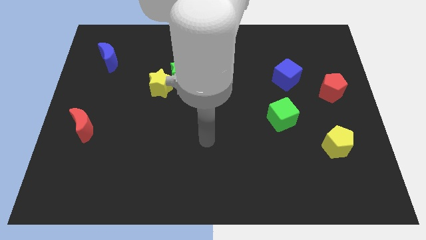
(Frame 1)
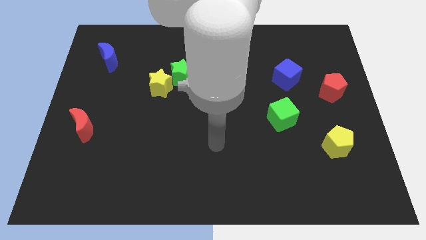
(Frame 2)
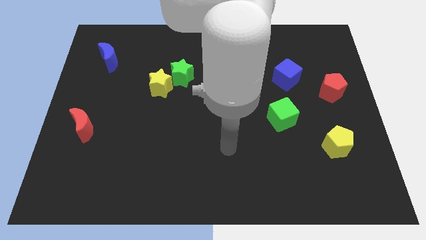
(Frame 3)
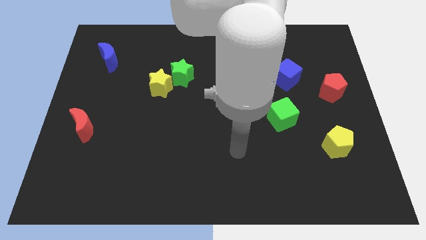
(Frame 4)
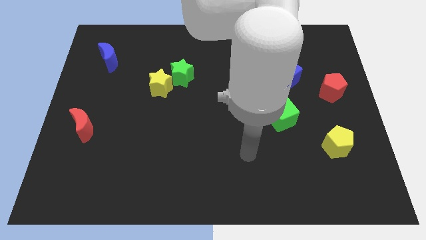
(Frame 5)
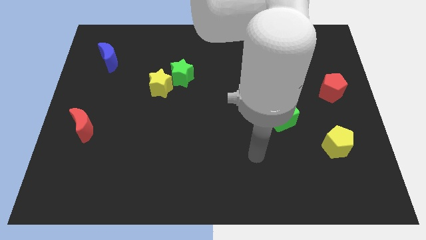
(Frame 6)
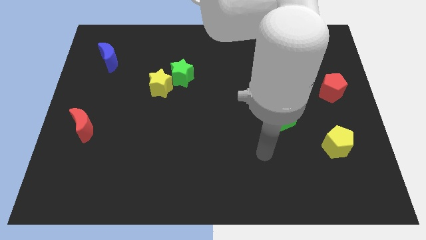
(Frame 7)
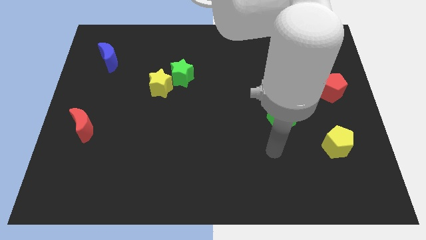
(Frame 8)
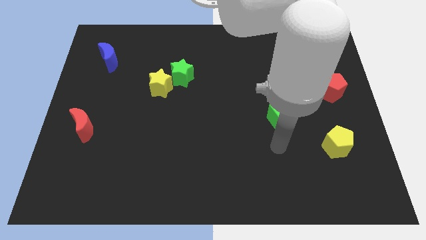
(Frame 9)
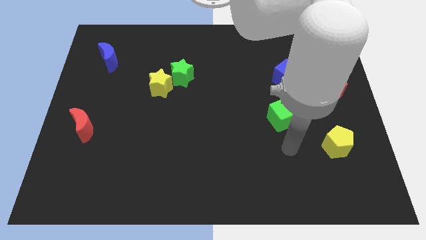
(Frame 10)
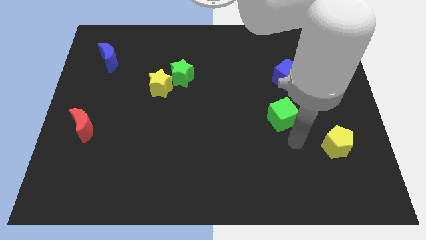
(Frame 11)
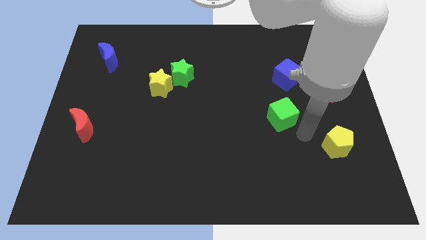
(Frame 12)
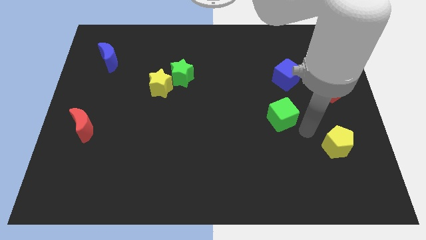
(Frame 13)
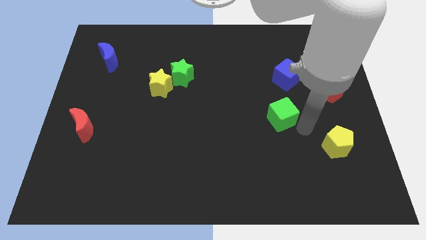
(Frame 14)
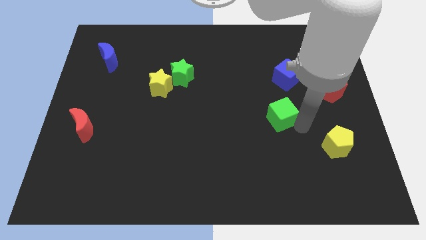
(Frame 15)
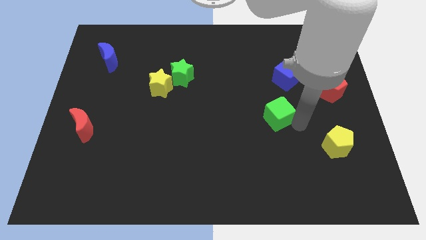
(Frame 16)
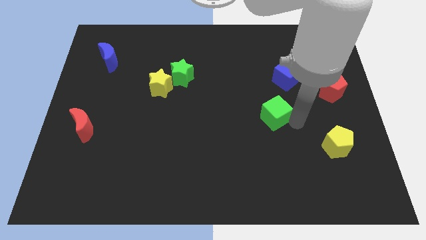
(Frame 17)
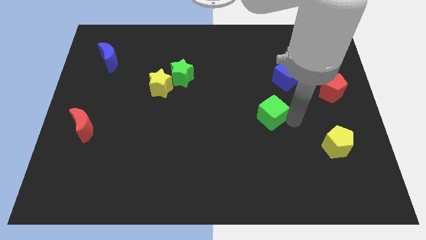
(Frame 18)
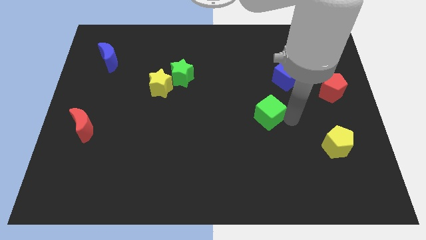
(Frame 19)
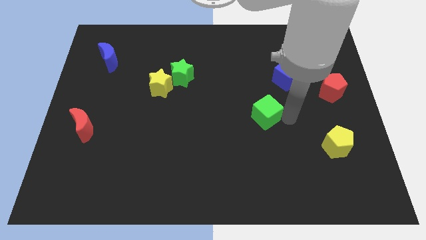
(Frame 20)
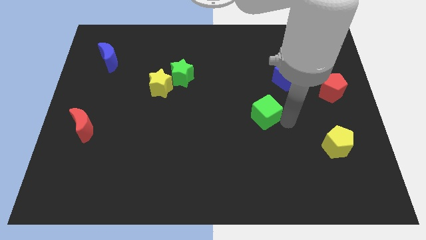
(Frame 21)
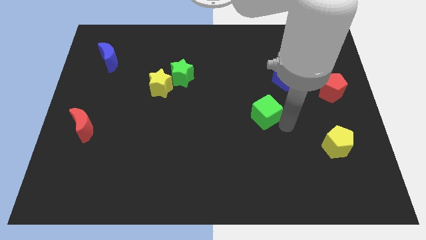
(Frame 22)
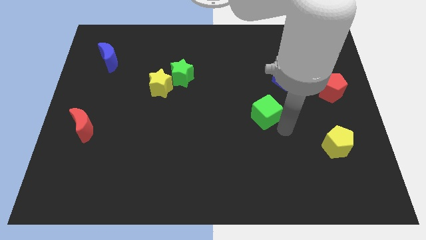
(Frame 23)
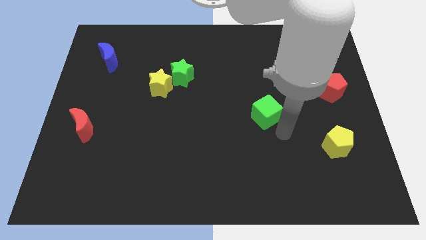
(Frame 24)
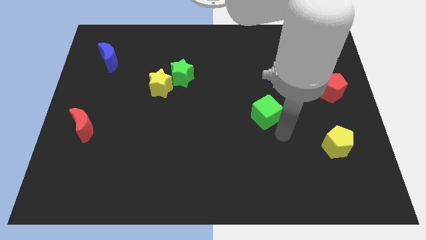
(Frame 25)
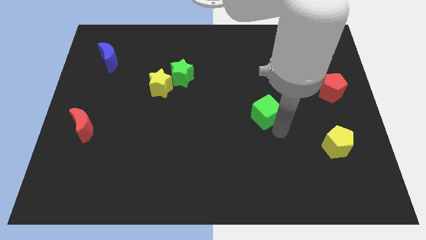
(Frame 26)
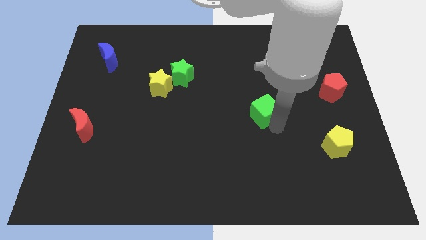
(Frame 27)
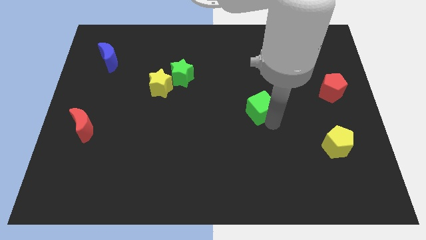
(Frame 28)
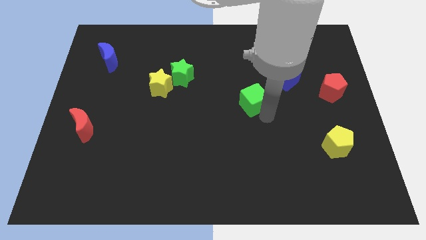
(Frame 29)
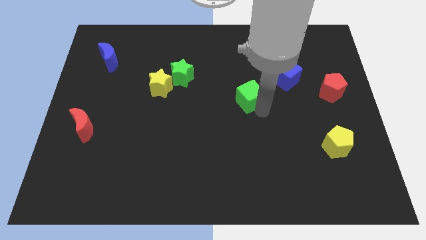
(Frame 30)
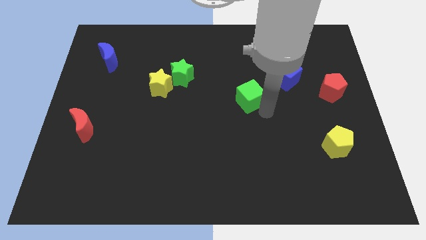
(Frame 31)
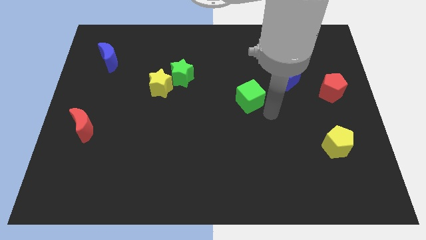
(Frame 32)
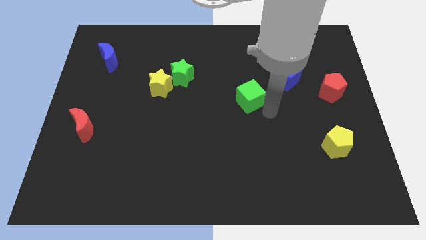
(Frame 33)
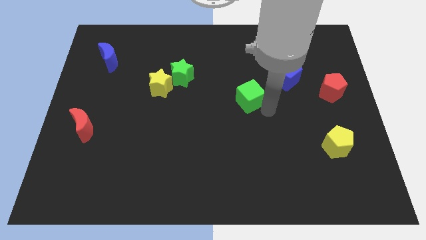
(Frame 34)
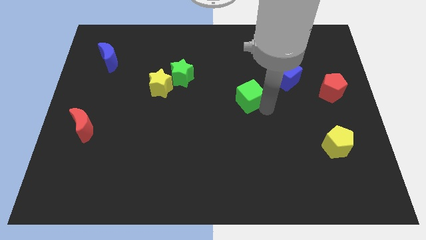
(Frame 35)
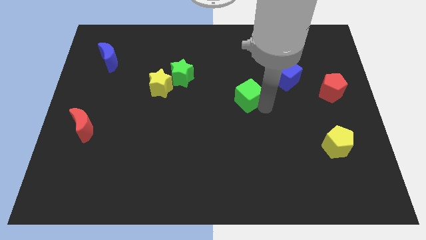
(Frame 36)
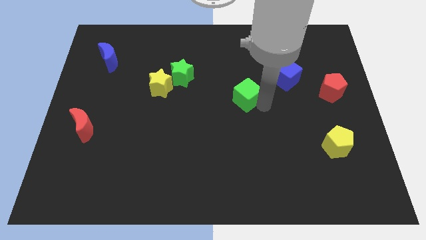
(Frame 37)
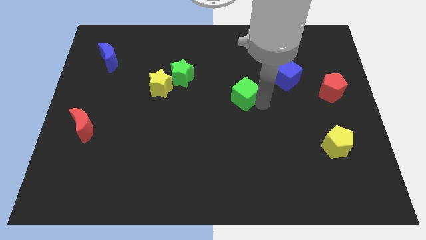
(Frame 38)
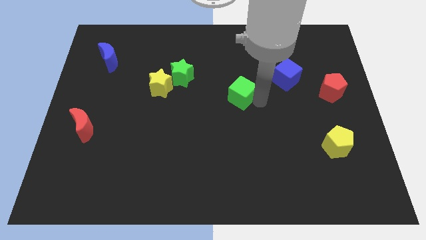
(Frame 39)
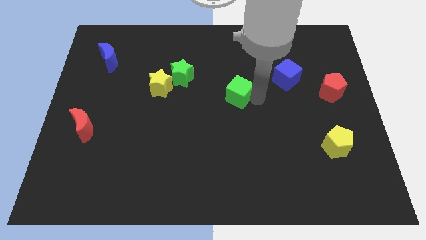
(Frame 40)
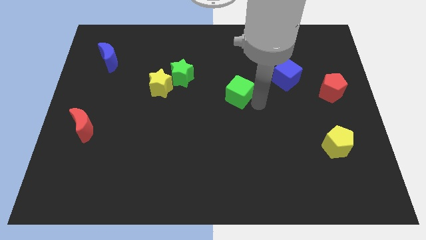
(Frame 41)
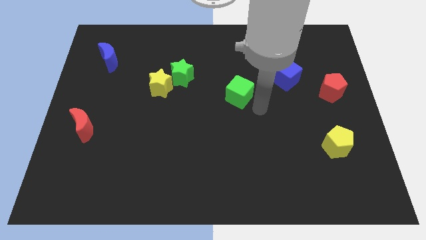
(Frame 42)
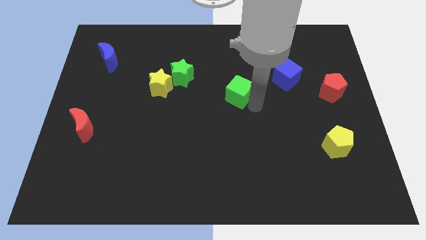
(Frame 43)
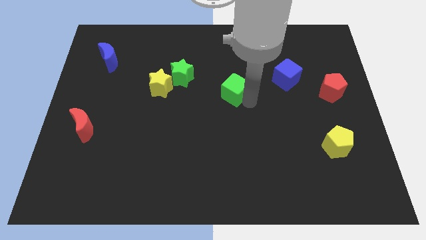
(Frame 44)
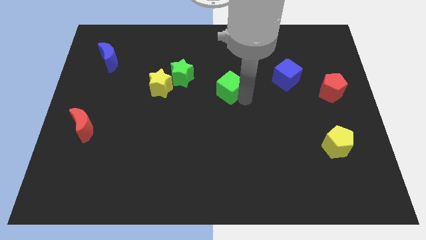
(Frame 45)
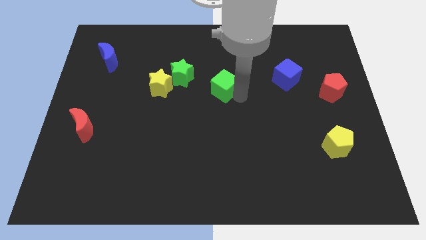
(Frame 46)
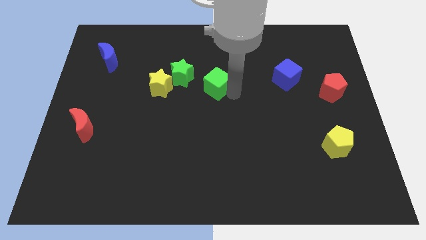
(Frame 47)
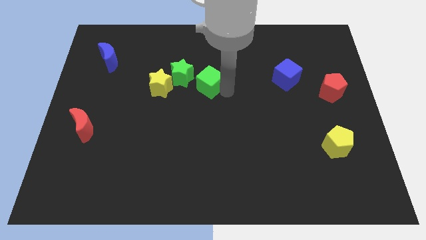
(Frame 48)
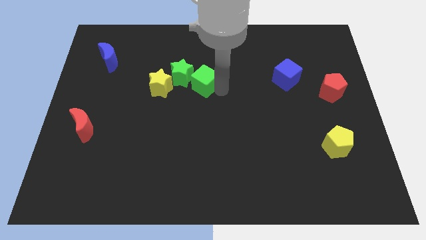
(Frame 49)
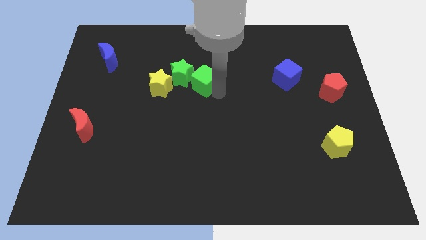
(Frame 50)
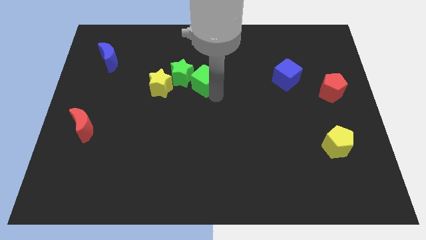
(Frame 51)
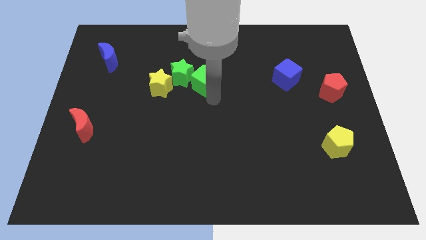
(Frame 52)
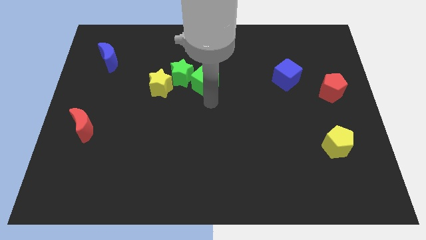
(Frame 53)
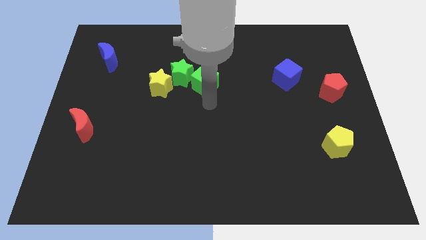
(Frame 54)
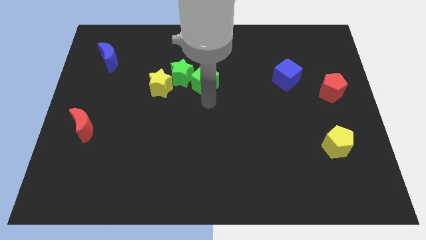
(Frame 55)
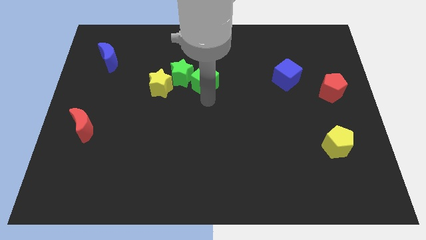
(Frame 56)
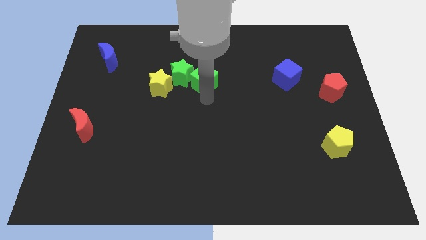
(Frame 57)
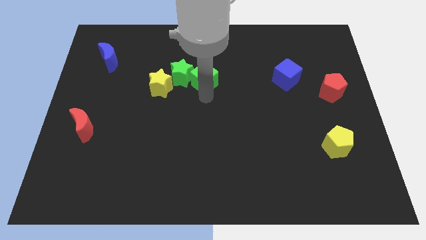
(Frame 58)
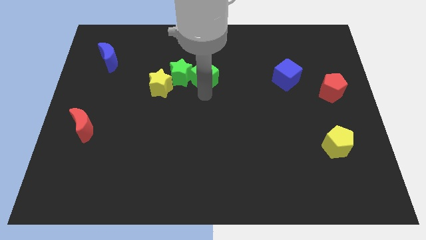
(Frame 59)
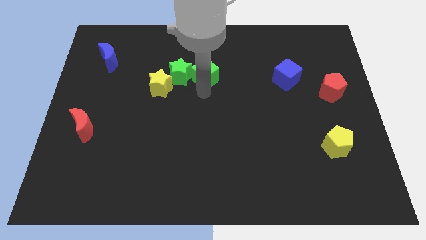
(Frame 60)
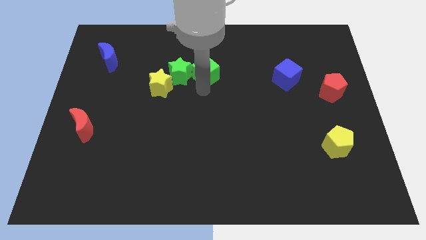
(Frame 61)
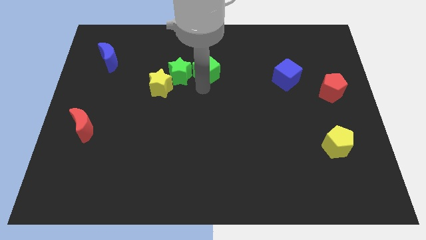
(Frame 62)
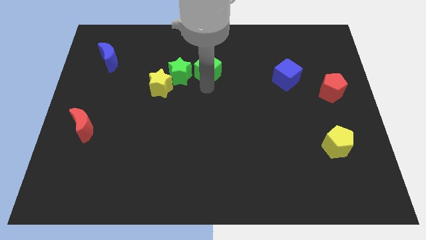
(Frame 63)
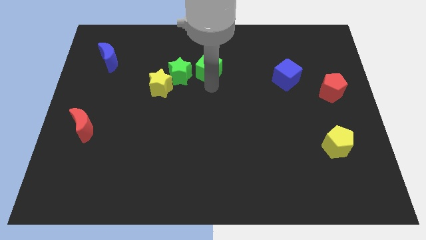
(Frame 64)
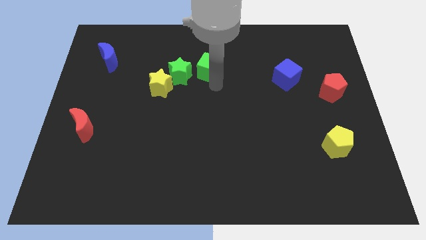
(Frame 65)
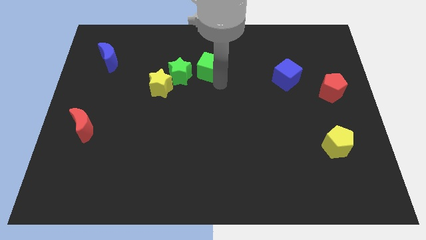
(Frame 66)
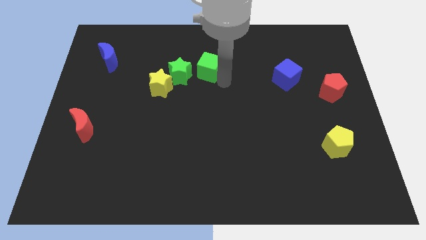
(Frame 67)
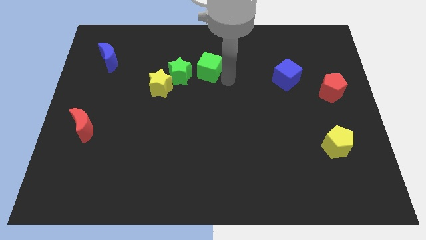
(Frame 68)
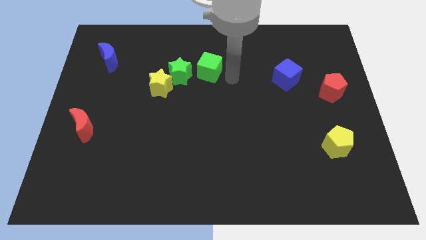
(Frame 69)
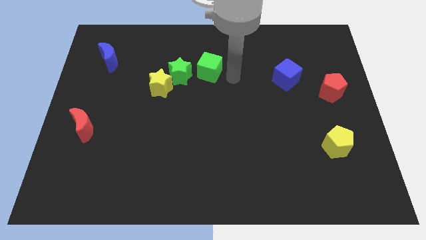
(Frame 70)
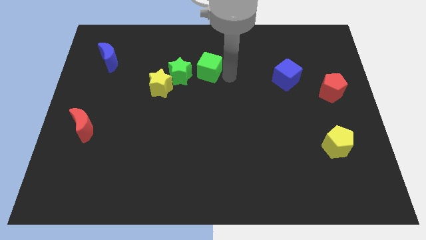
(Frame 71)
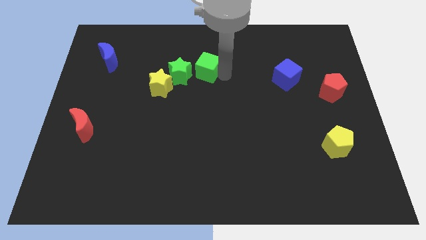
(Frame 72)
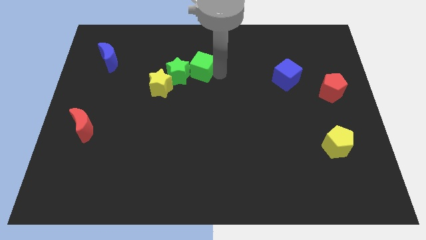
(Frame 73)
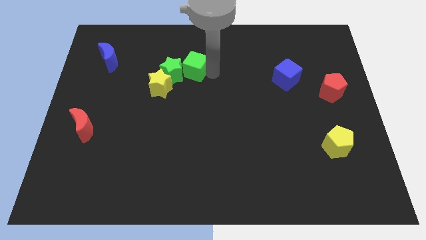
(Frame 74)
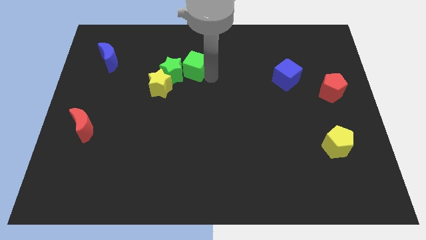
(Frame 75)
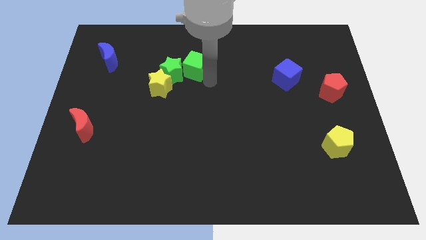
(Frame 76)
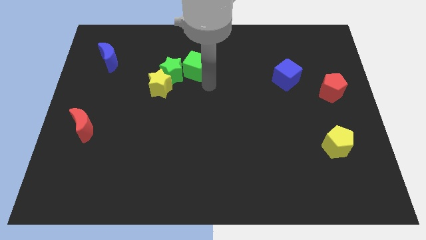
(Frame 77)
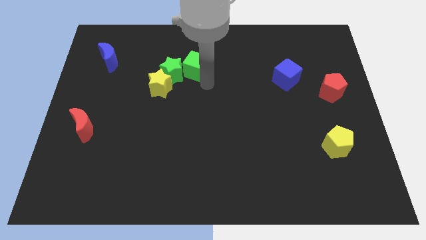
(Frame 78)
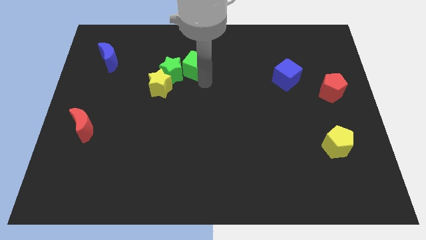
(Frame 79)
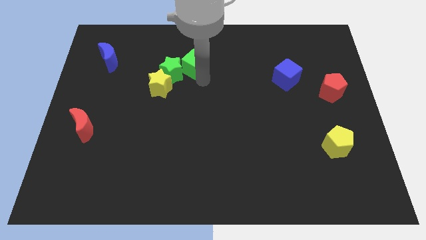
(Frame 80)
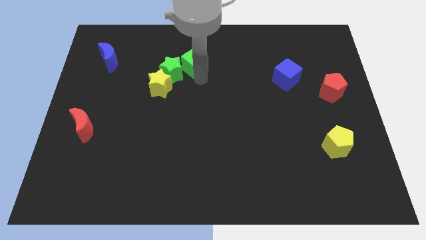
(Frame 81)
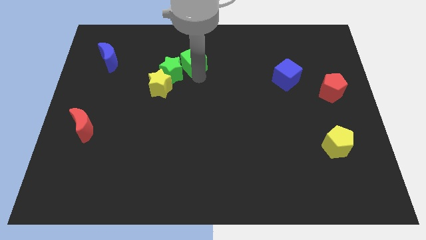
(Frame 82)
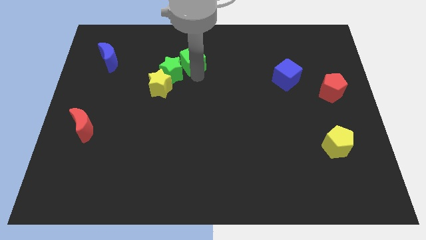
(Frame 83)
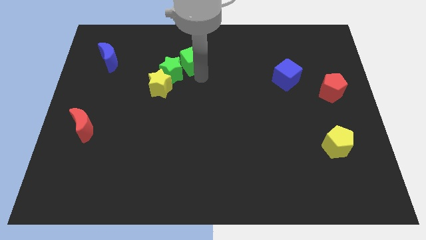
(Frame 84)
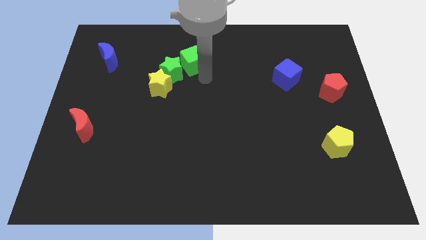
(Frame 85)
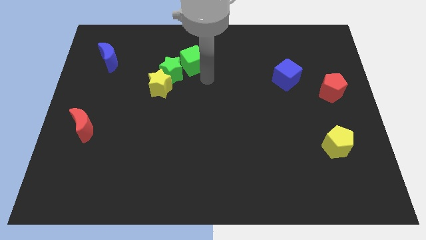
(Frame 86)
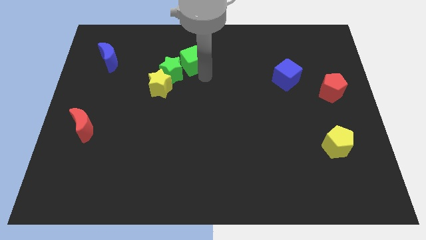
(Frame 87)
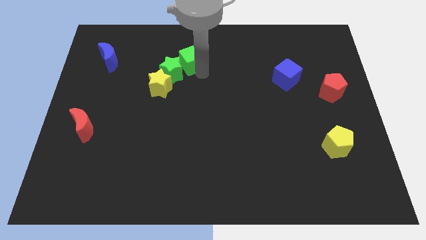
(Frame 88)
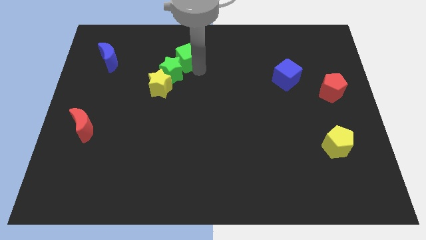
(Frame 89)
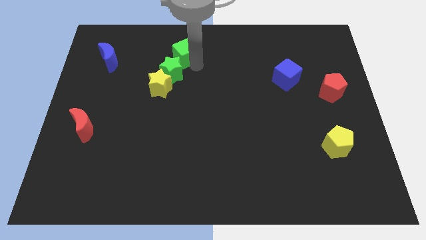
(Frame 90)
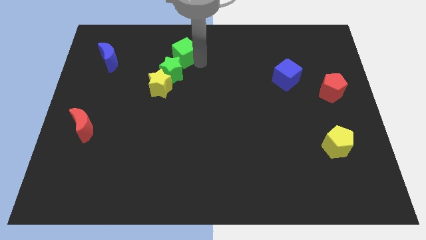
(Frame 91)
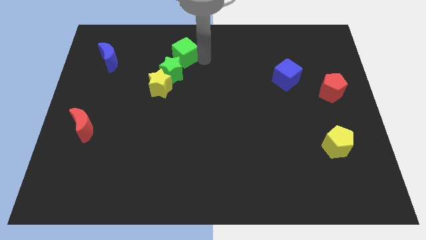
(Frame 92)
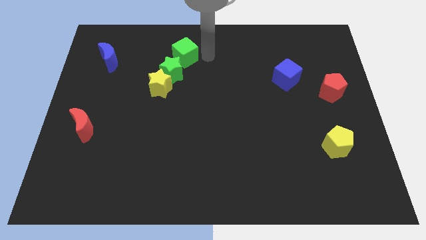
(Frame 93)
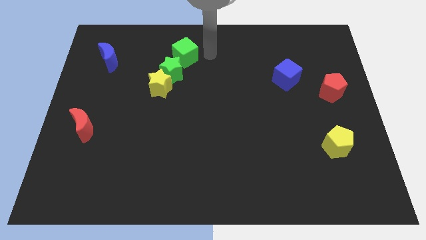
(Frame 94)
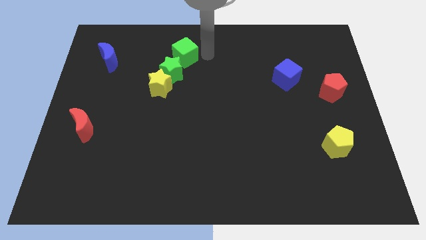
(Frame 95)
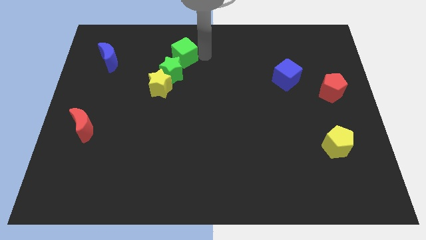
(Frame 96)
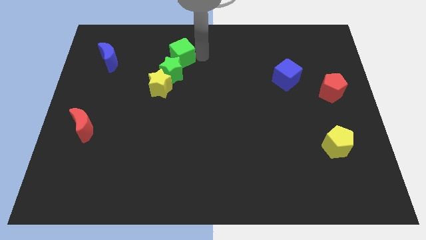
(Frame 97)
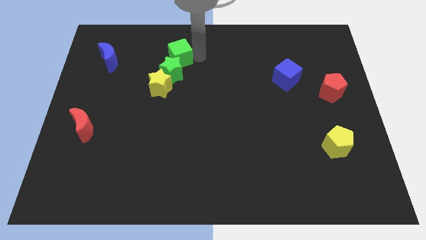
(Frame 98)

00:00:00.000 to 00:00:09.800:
push the green cube to the top side of the yellow star
